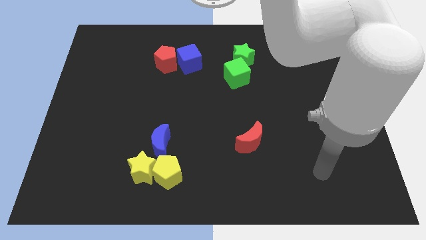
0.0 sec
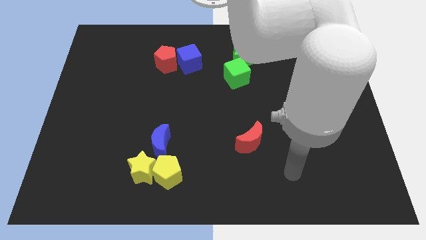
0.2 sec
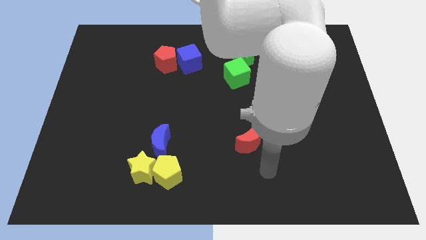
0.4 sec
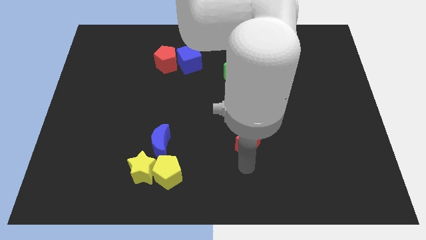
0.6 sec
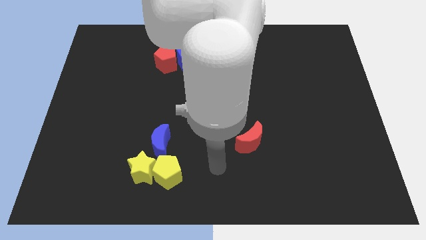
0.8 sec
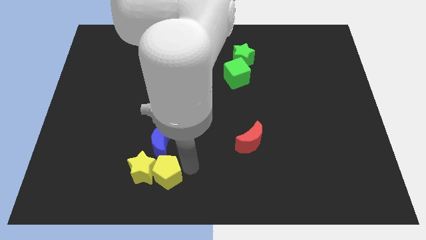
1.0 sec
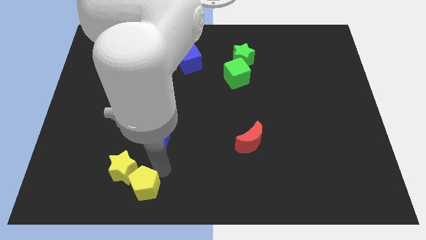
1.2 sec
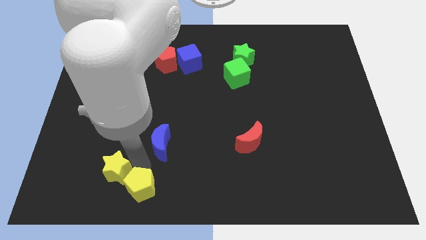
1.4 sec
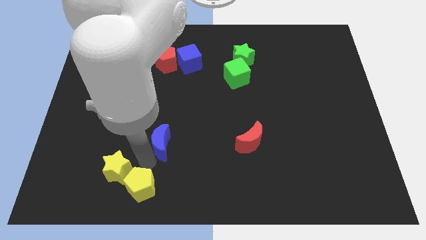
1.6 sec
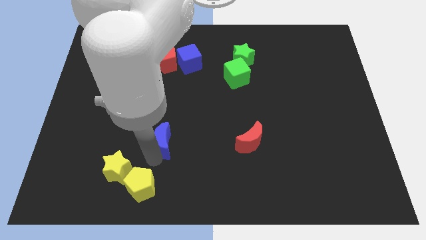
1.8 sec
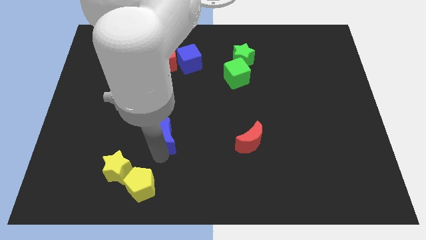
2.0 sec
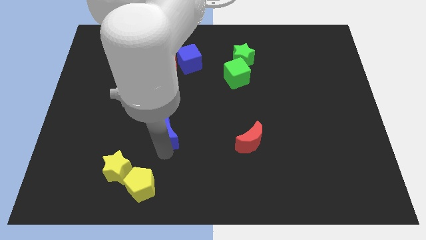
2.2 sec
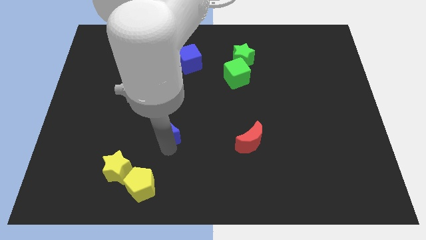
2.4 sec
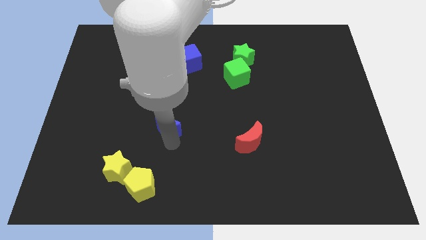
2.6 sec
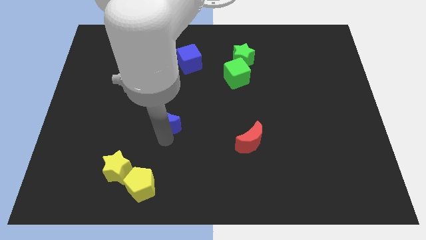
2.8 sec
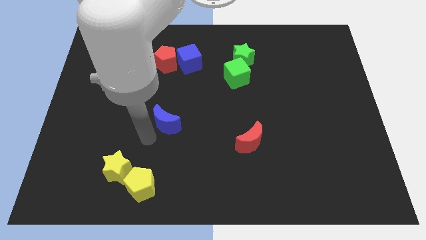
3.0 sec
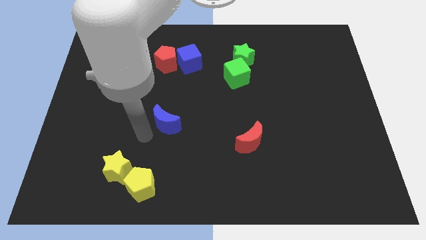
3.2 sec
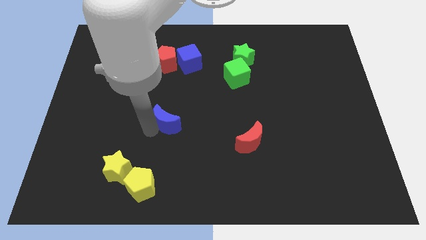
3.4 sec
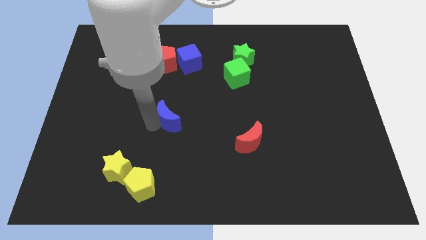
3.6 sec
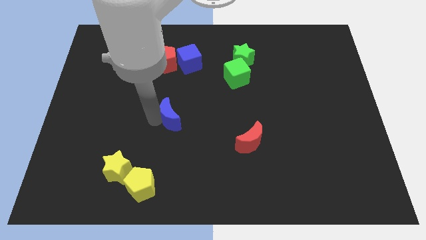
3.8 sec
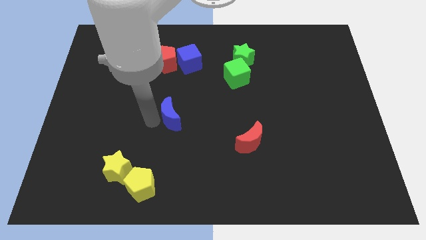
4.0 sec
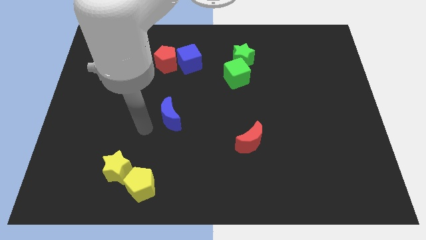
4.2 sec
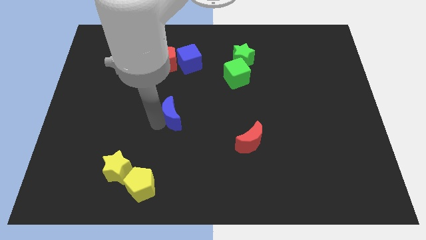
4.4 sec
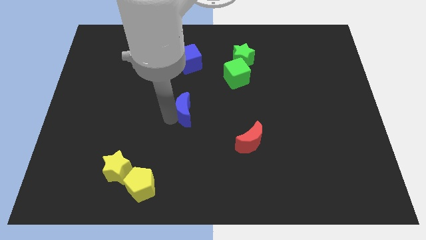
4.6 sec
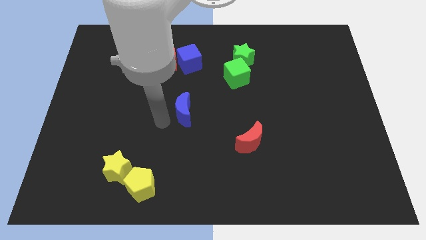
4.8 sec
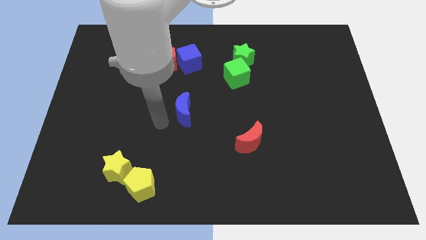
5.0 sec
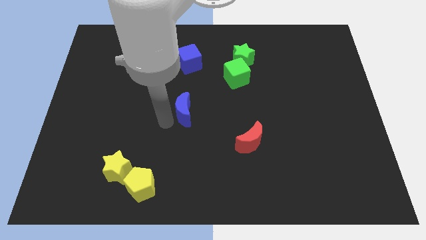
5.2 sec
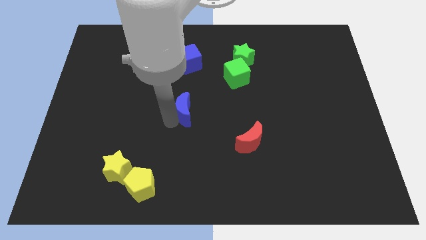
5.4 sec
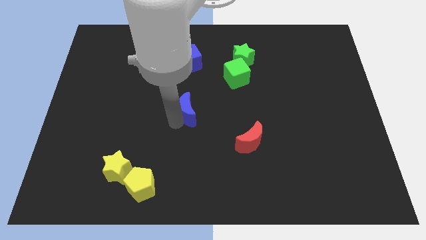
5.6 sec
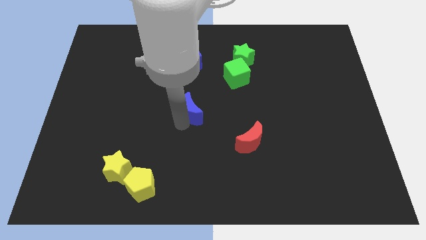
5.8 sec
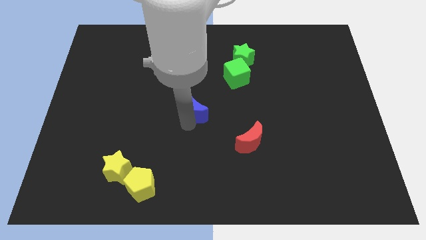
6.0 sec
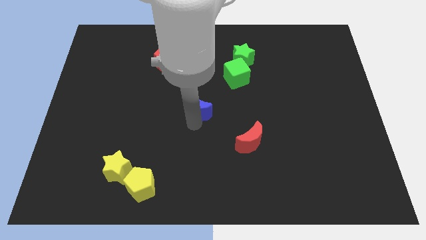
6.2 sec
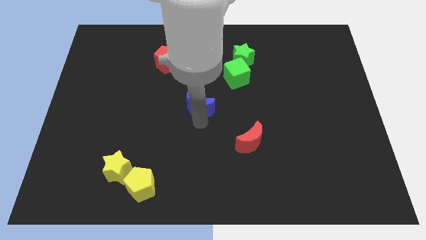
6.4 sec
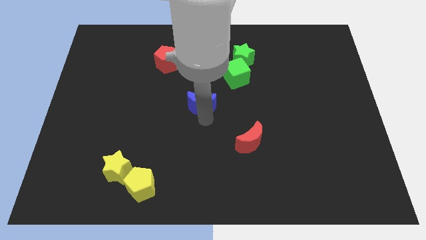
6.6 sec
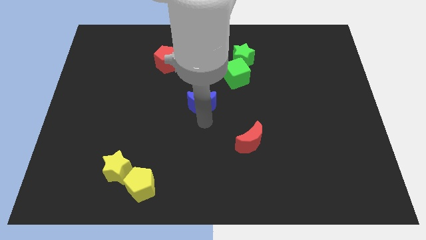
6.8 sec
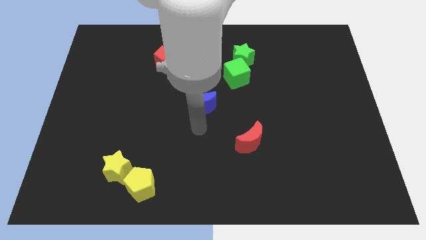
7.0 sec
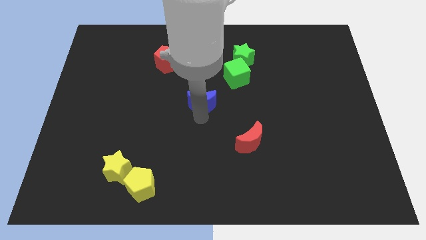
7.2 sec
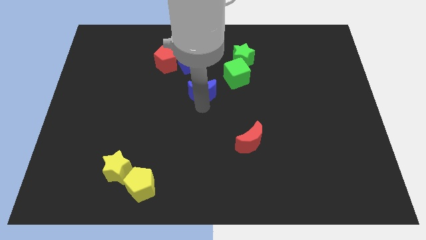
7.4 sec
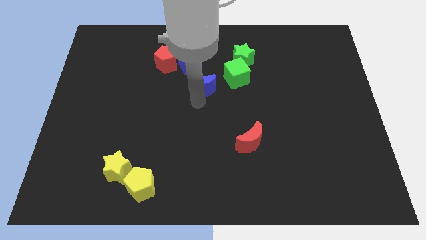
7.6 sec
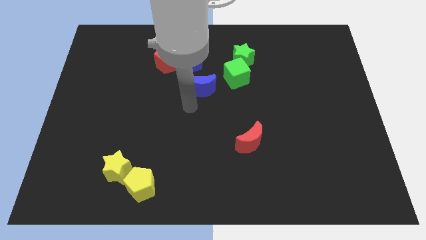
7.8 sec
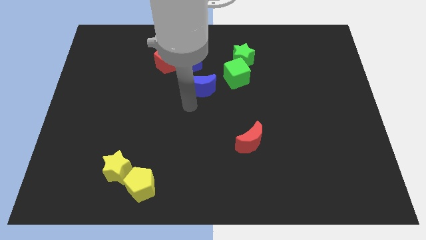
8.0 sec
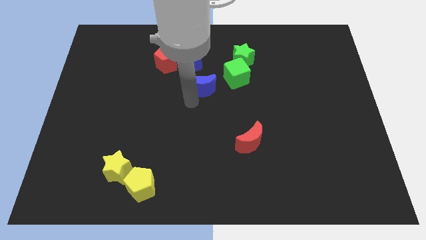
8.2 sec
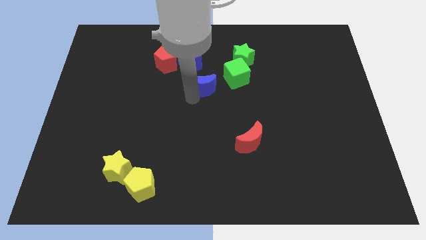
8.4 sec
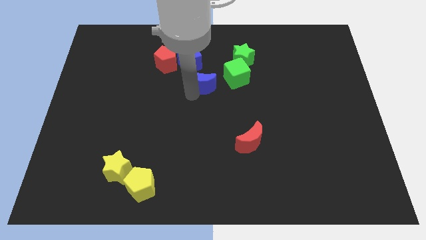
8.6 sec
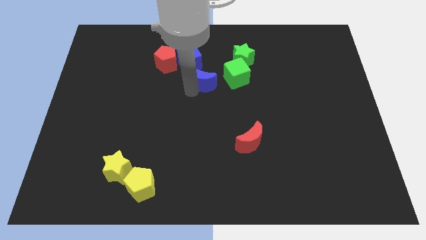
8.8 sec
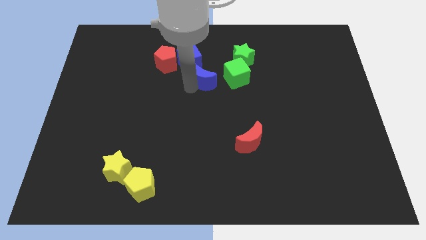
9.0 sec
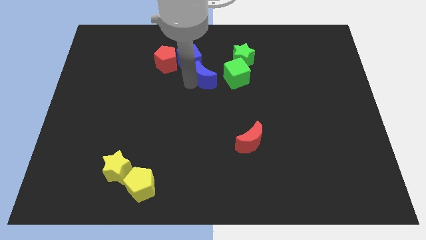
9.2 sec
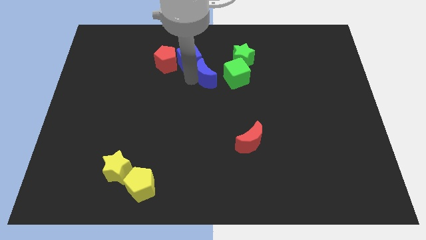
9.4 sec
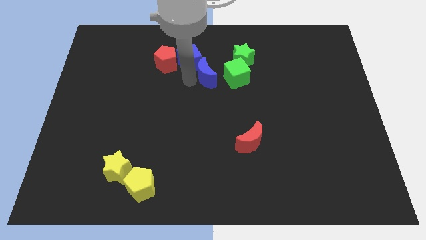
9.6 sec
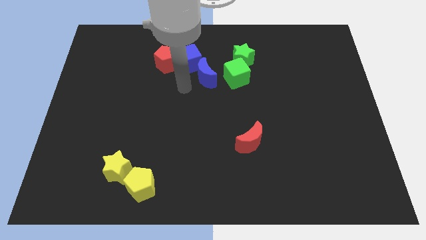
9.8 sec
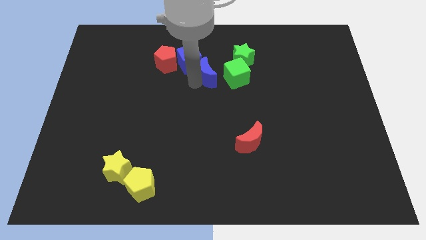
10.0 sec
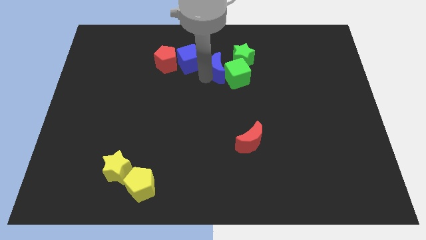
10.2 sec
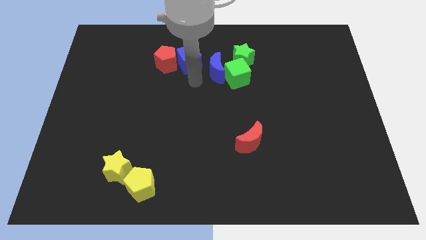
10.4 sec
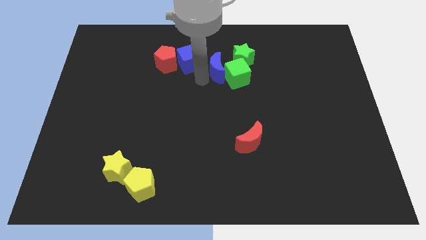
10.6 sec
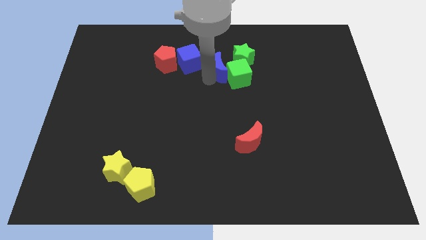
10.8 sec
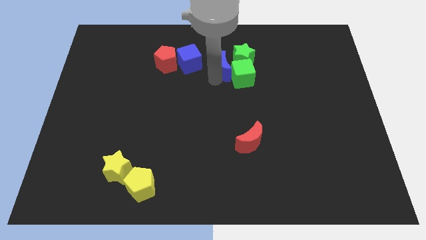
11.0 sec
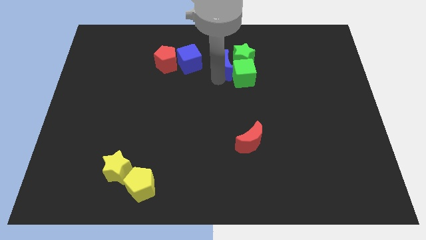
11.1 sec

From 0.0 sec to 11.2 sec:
slide the blue moon towards the green star

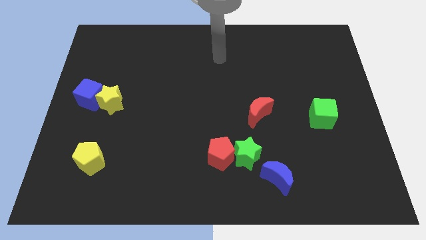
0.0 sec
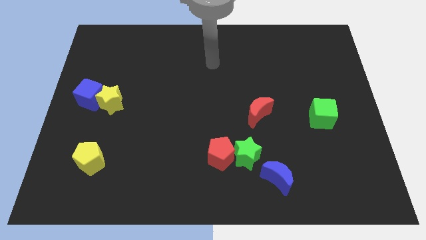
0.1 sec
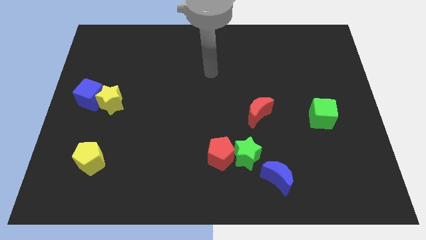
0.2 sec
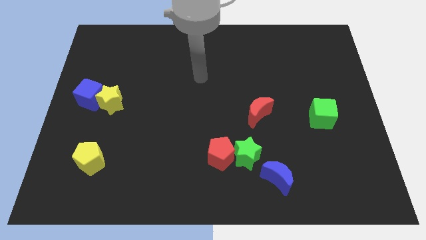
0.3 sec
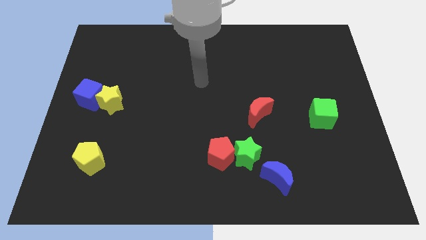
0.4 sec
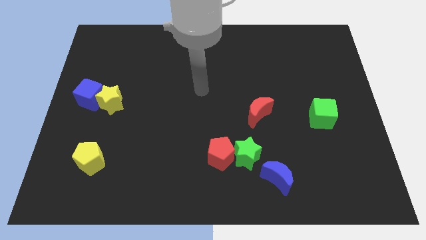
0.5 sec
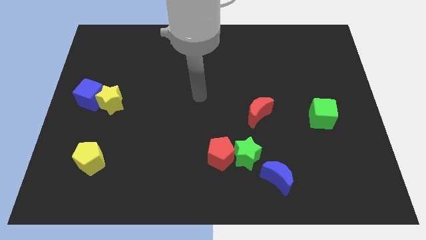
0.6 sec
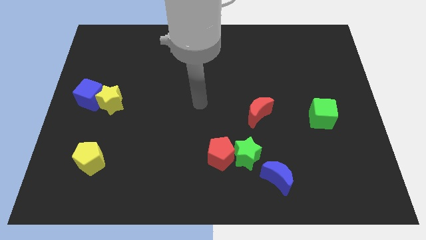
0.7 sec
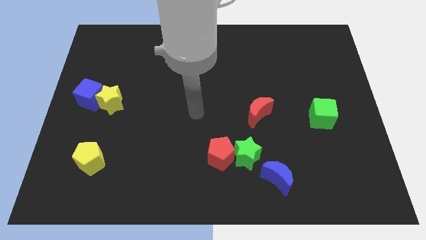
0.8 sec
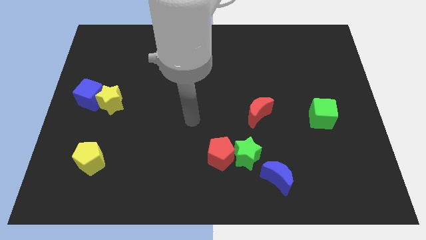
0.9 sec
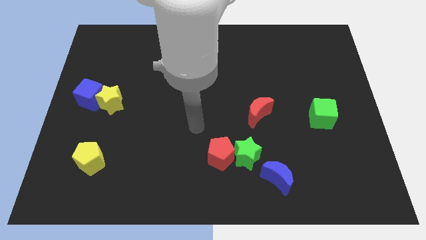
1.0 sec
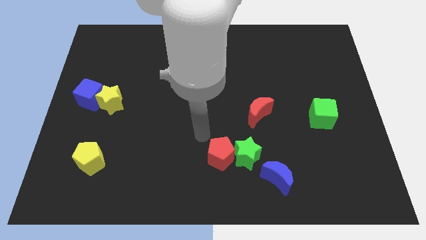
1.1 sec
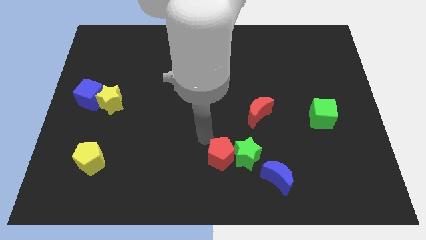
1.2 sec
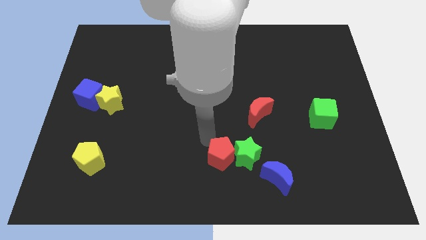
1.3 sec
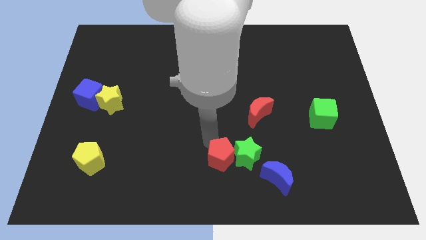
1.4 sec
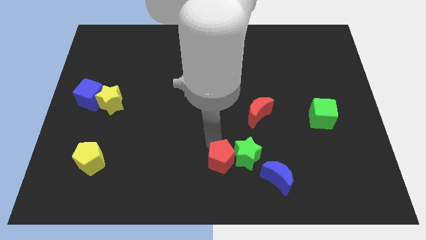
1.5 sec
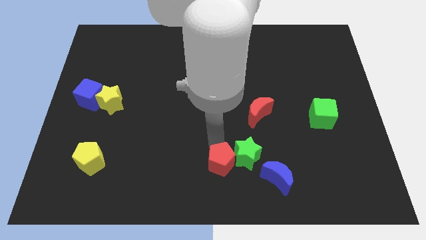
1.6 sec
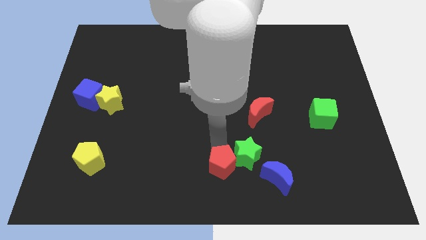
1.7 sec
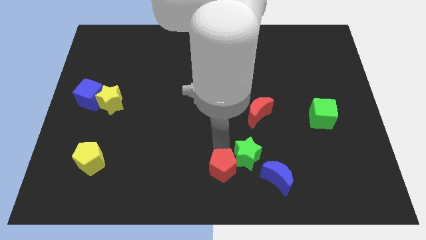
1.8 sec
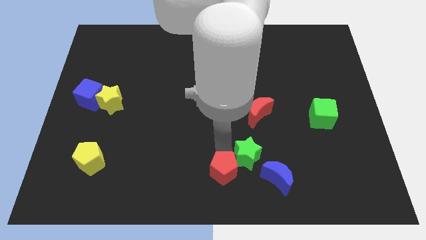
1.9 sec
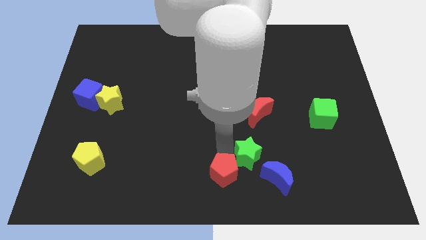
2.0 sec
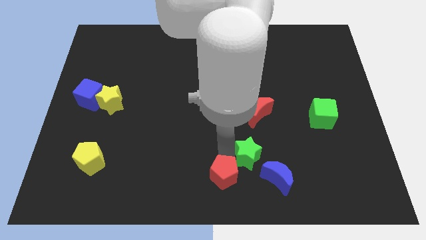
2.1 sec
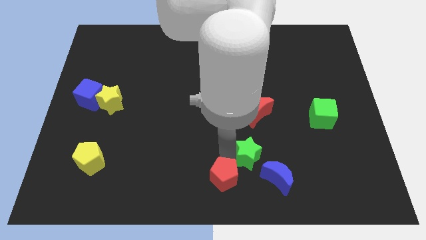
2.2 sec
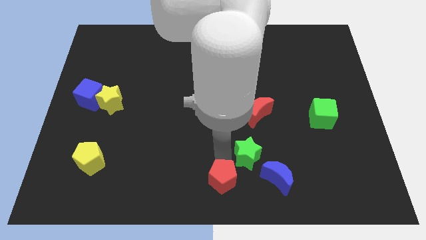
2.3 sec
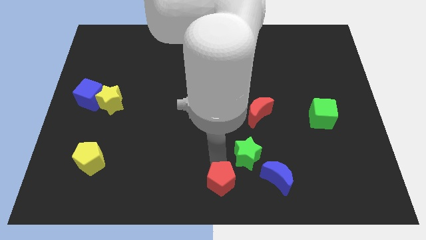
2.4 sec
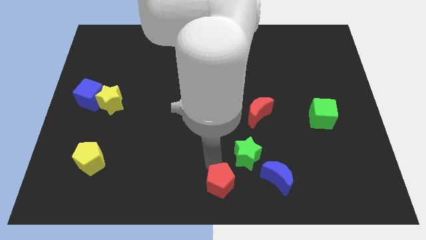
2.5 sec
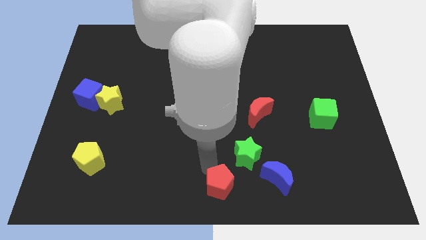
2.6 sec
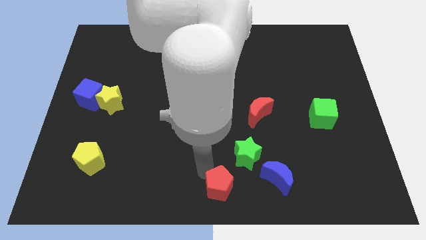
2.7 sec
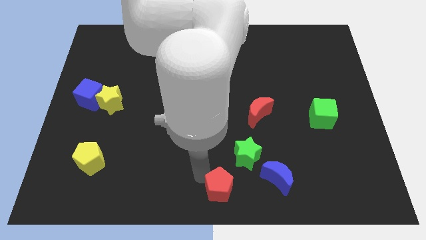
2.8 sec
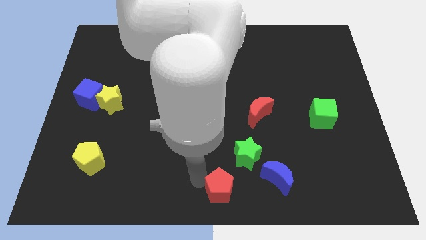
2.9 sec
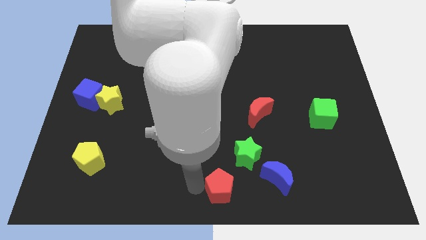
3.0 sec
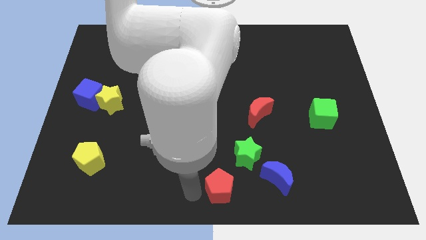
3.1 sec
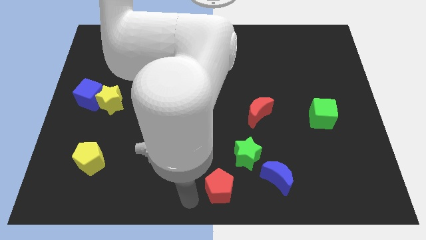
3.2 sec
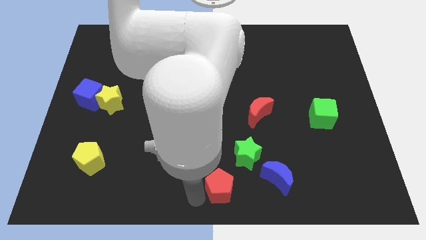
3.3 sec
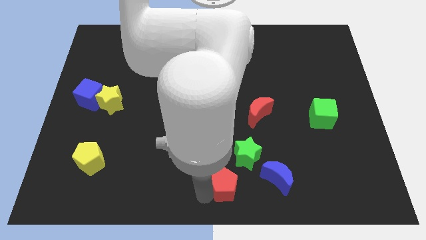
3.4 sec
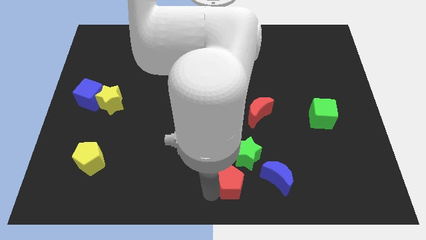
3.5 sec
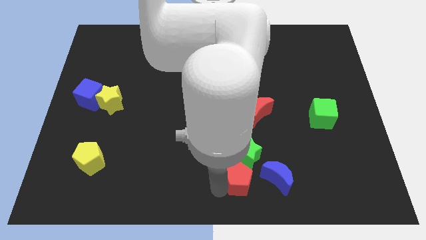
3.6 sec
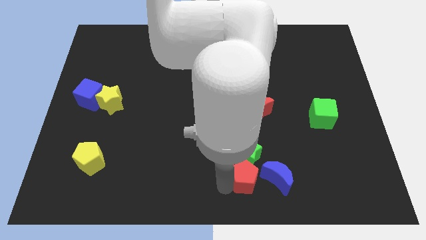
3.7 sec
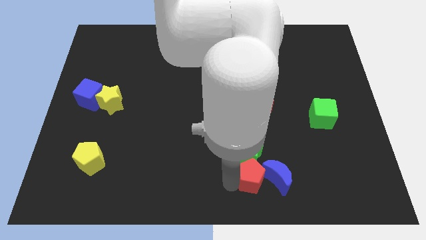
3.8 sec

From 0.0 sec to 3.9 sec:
put the red pentagon close to the blue moon
